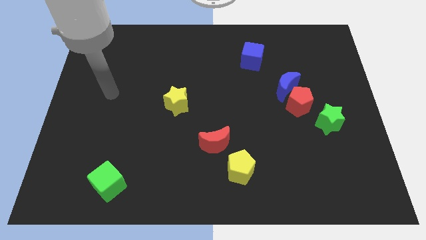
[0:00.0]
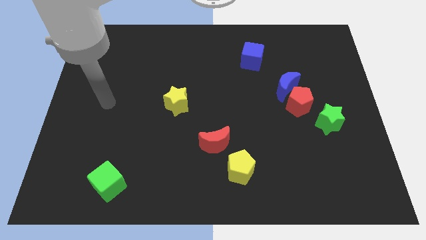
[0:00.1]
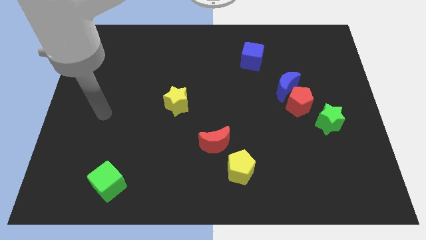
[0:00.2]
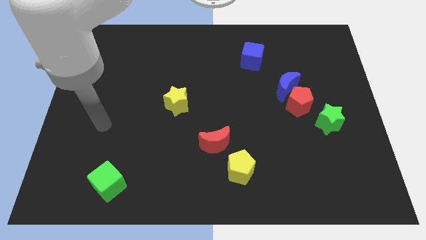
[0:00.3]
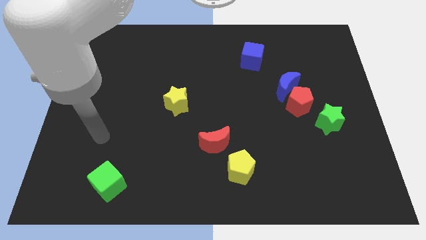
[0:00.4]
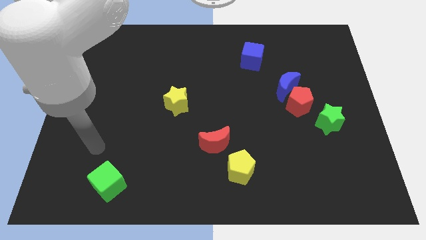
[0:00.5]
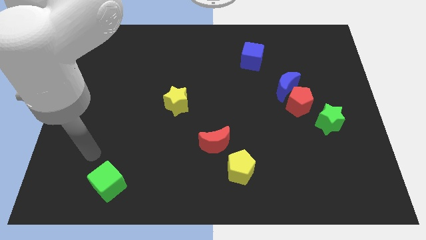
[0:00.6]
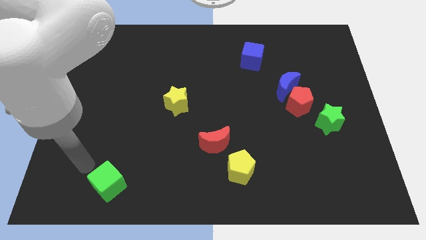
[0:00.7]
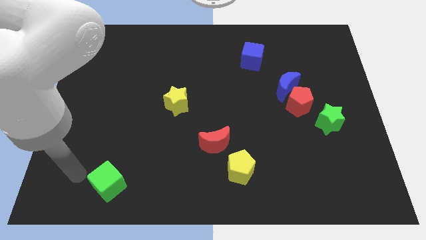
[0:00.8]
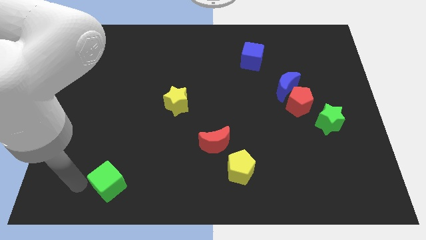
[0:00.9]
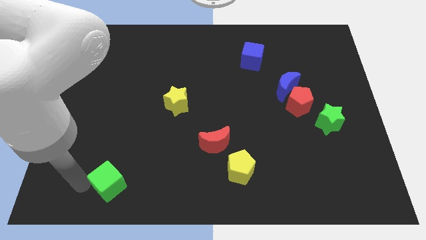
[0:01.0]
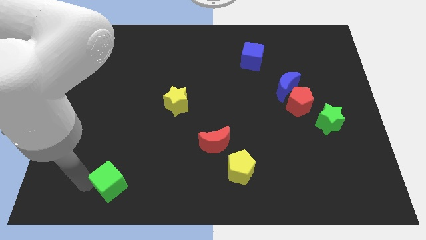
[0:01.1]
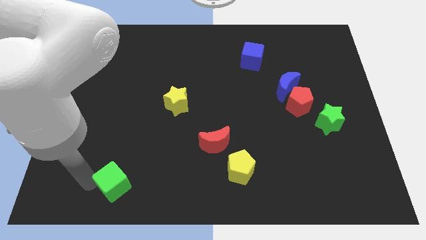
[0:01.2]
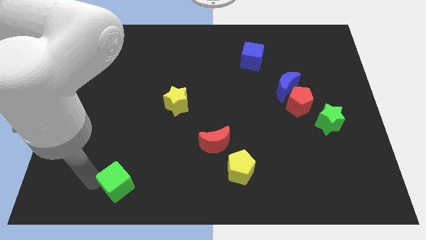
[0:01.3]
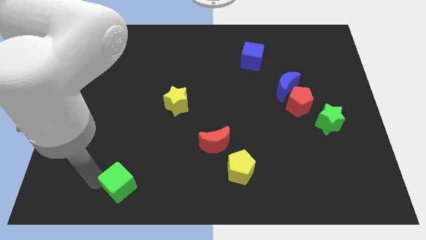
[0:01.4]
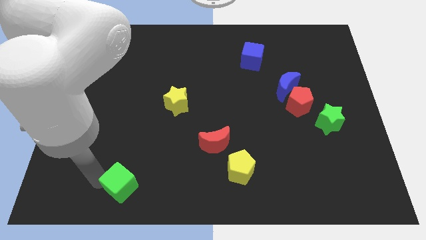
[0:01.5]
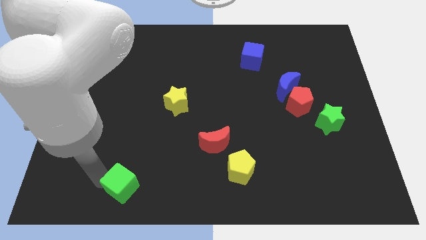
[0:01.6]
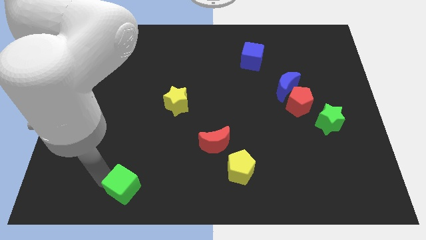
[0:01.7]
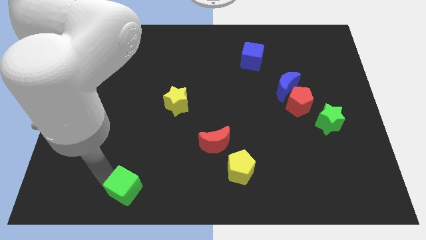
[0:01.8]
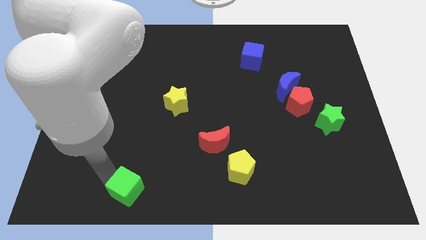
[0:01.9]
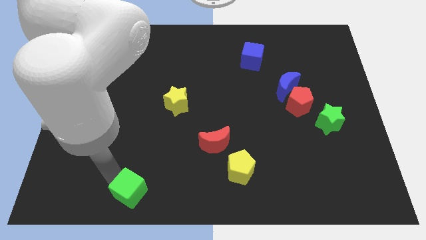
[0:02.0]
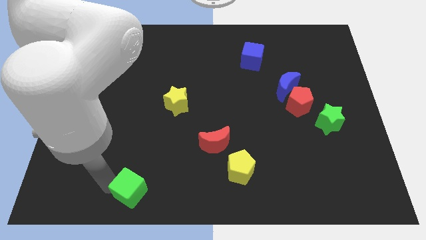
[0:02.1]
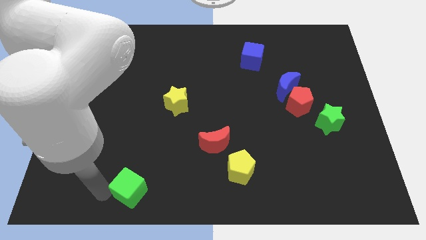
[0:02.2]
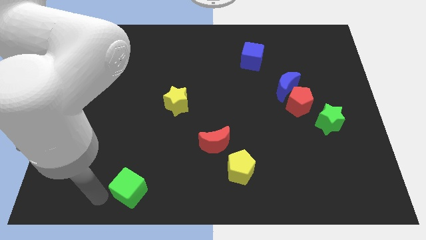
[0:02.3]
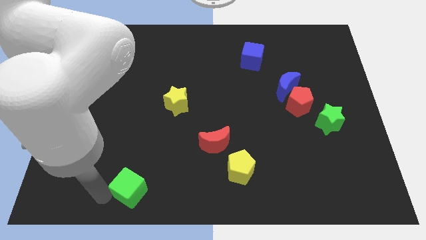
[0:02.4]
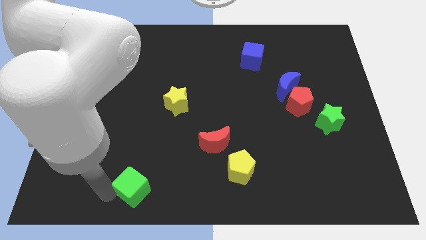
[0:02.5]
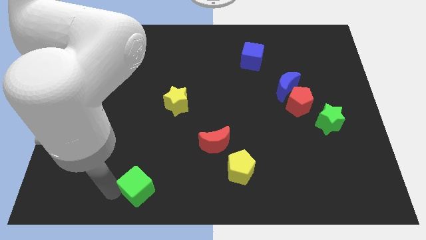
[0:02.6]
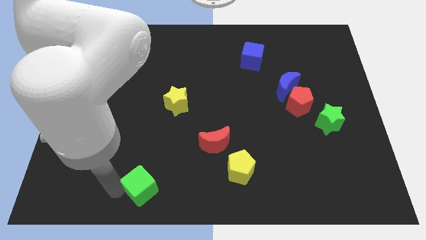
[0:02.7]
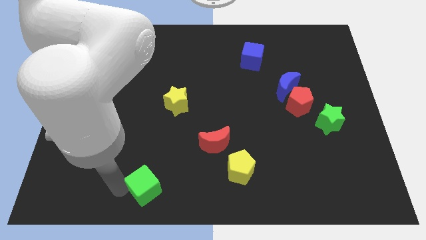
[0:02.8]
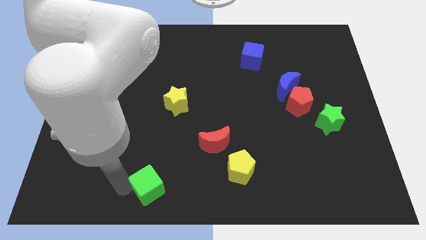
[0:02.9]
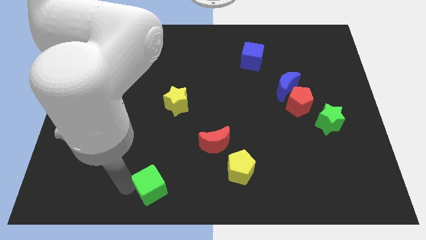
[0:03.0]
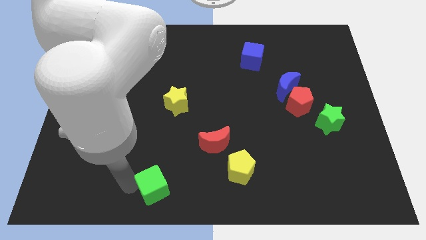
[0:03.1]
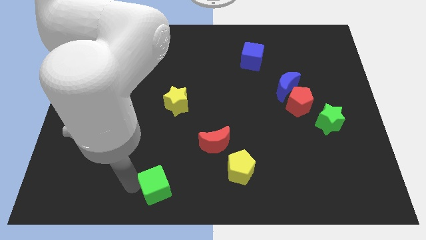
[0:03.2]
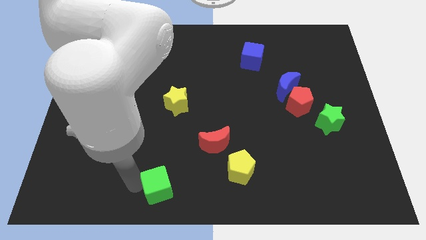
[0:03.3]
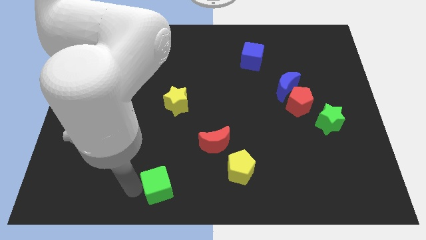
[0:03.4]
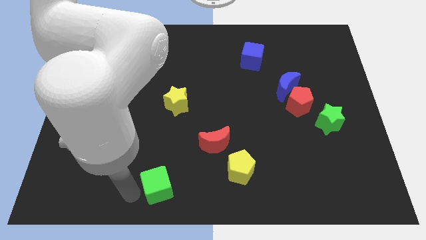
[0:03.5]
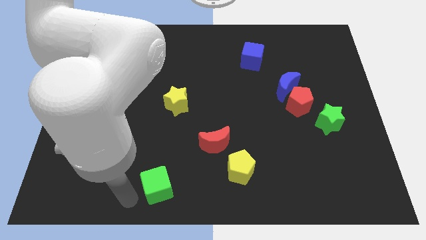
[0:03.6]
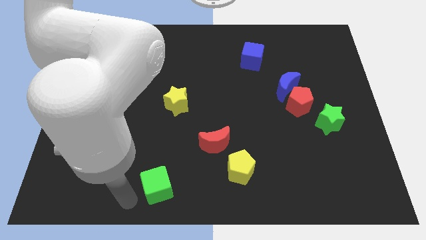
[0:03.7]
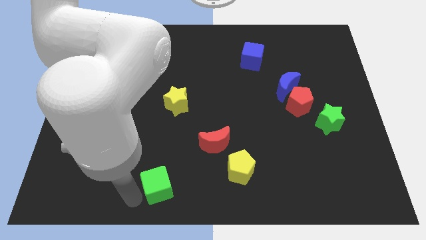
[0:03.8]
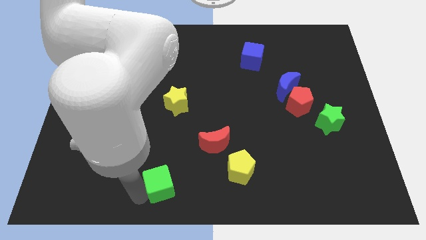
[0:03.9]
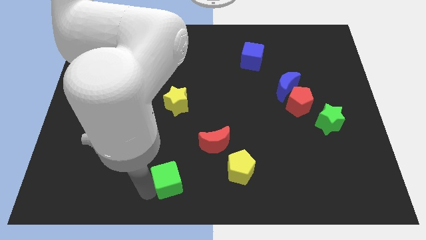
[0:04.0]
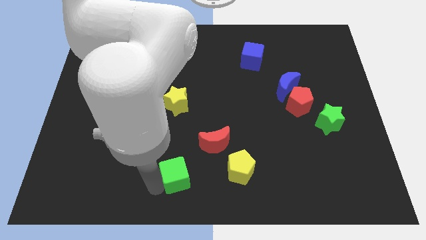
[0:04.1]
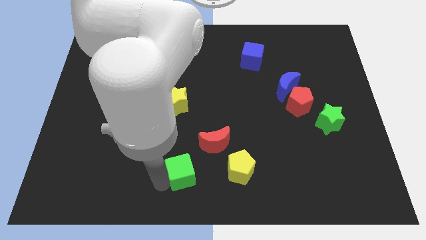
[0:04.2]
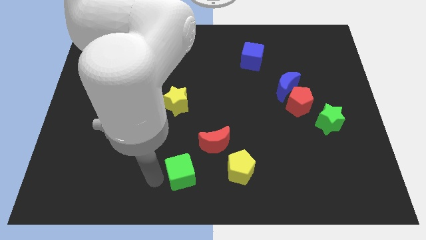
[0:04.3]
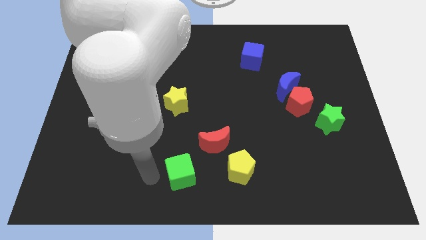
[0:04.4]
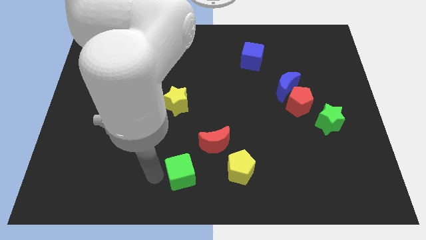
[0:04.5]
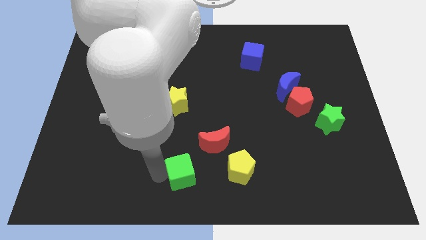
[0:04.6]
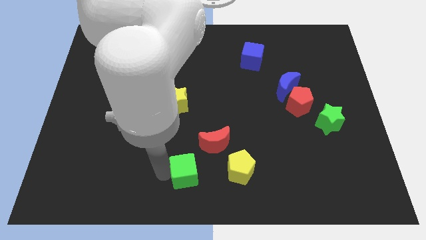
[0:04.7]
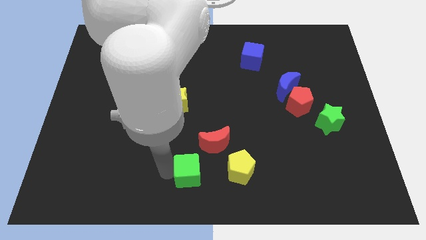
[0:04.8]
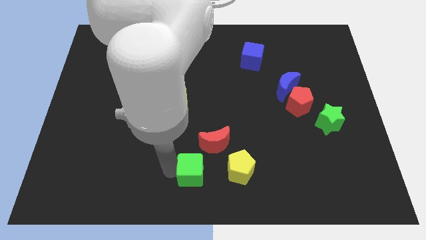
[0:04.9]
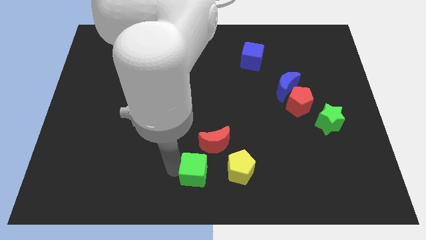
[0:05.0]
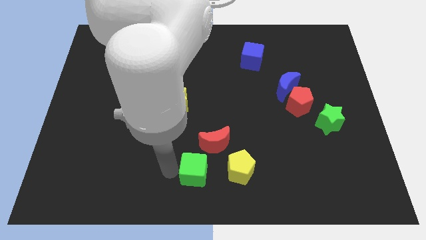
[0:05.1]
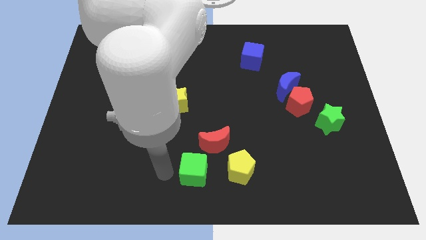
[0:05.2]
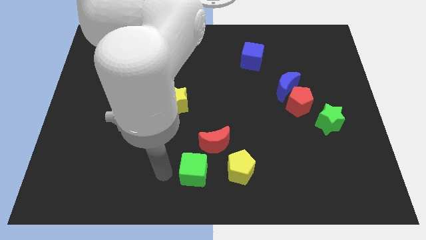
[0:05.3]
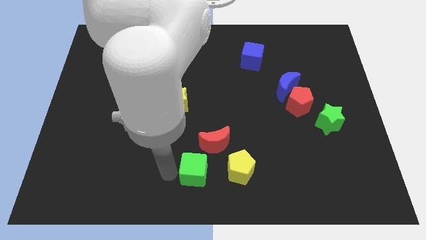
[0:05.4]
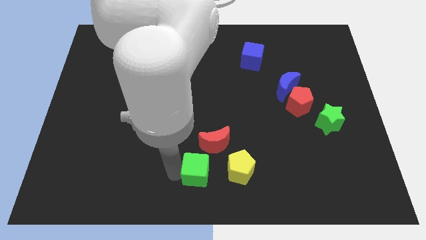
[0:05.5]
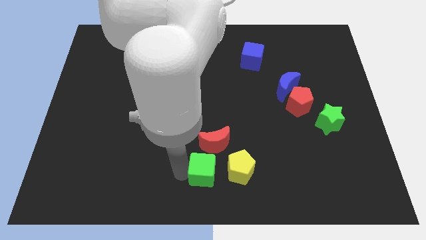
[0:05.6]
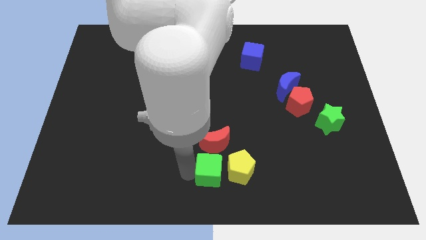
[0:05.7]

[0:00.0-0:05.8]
slide the green cube close to the yellow pentagon

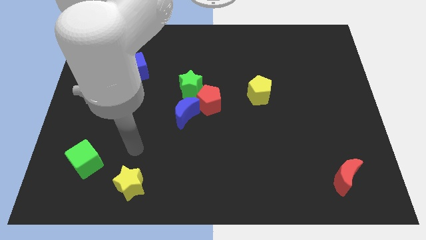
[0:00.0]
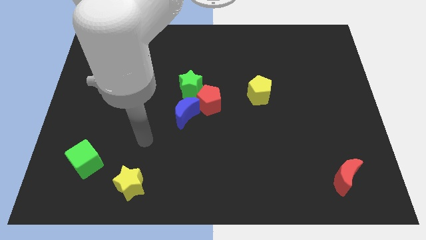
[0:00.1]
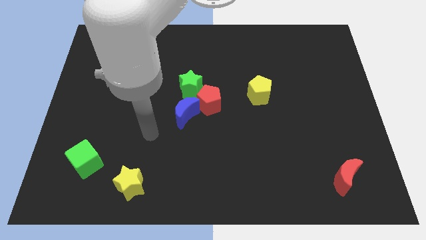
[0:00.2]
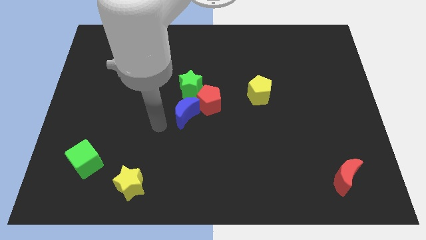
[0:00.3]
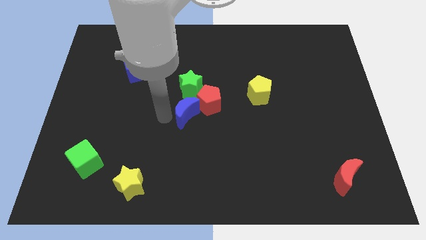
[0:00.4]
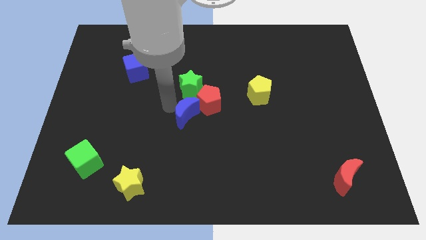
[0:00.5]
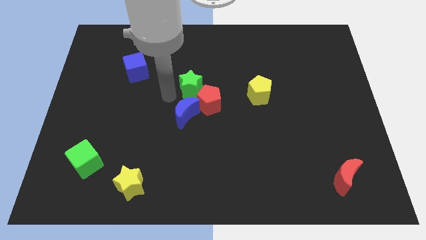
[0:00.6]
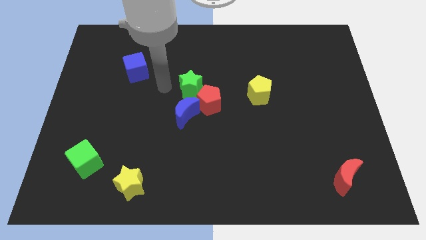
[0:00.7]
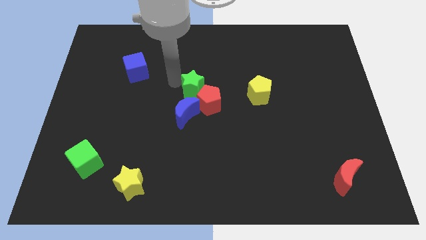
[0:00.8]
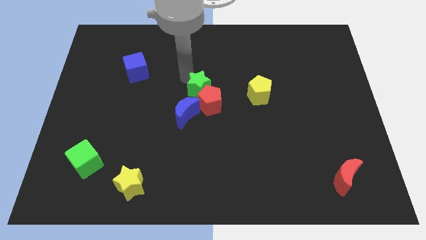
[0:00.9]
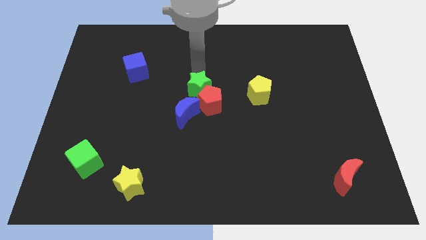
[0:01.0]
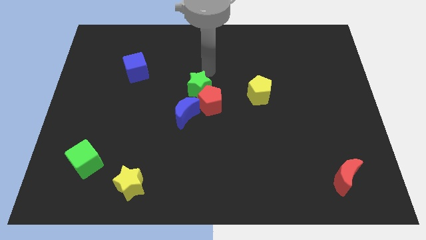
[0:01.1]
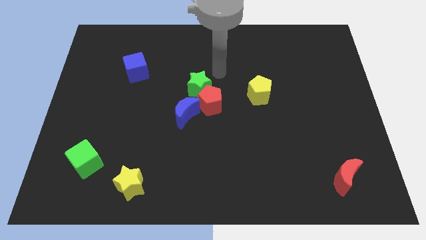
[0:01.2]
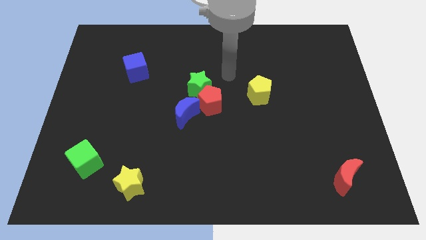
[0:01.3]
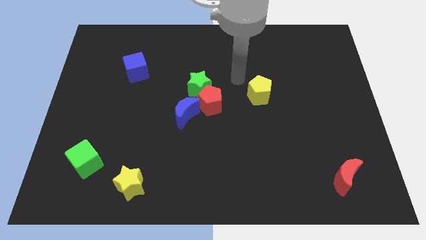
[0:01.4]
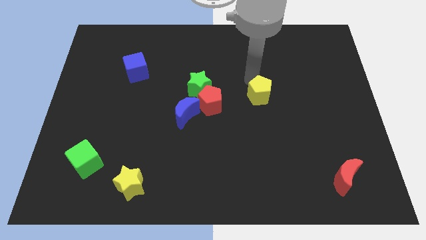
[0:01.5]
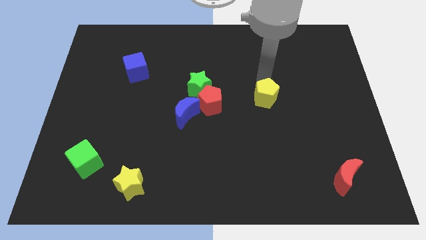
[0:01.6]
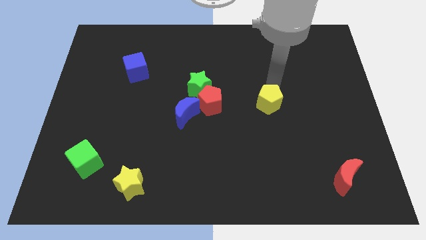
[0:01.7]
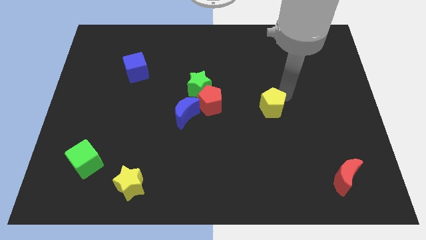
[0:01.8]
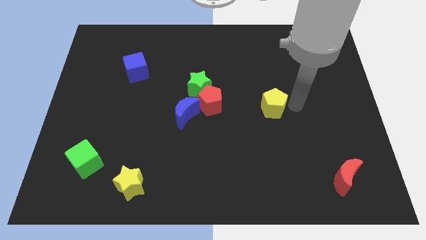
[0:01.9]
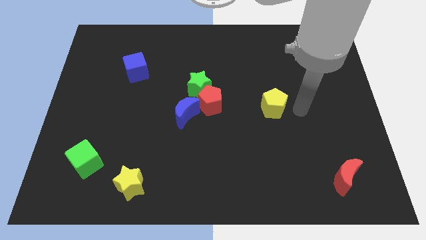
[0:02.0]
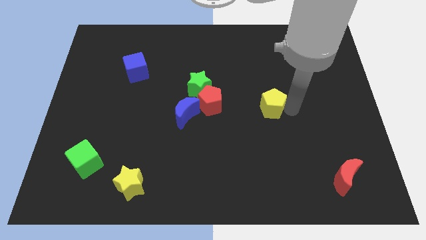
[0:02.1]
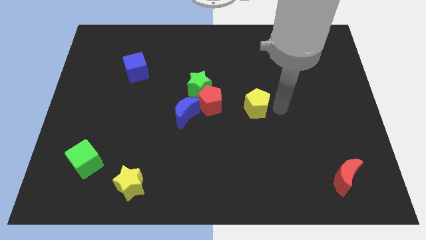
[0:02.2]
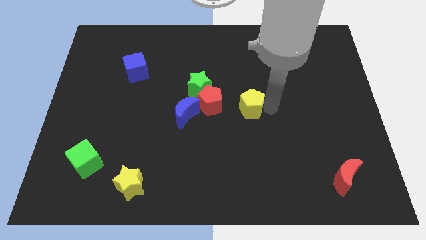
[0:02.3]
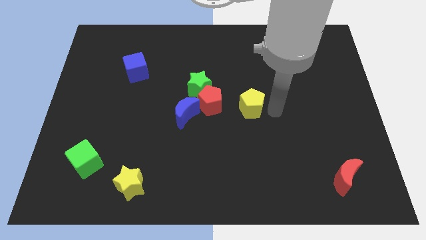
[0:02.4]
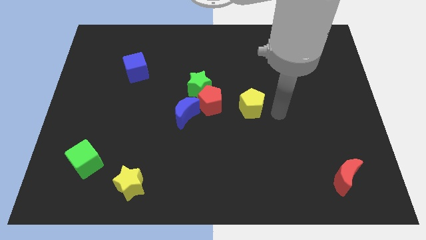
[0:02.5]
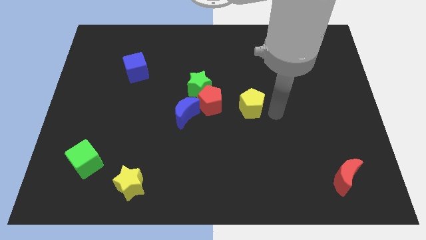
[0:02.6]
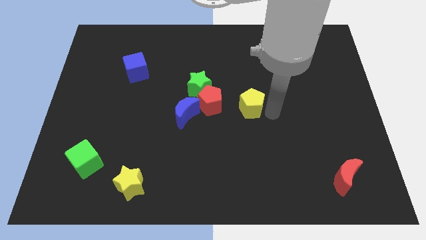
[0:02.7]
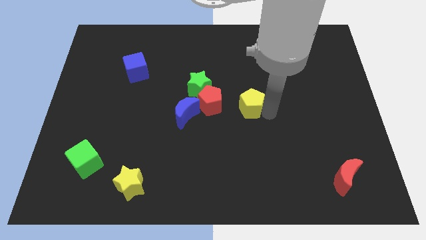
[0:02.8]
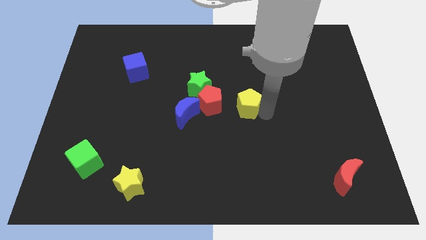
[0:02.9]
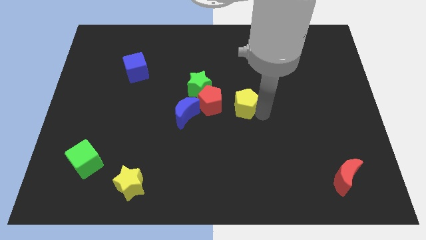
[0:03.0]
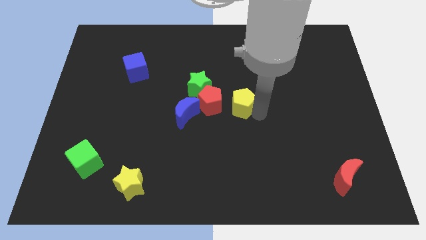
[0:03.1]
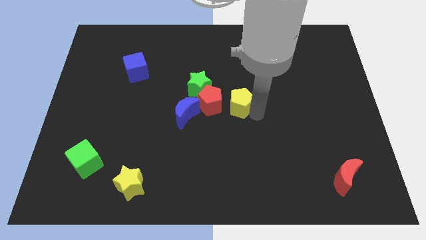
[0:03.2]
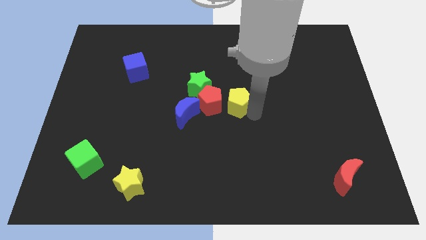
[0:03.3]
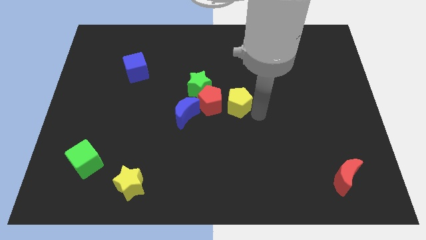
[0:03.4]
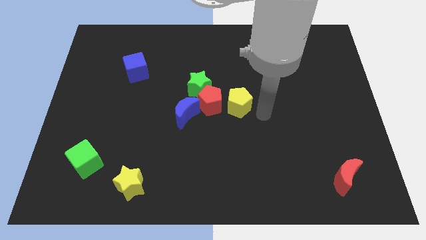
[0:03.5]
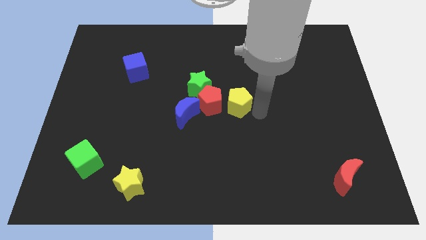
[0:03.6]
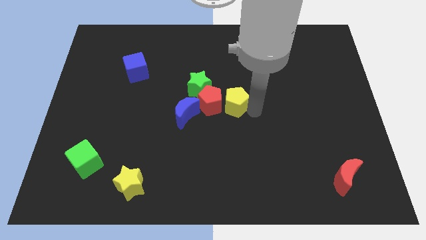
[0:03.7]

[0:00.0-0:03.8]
slide the yellow pentagon towards the red pentagon
